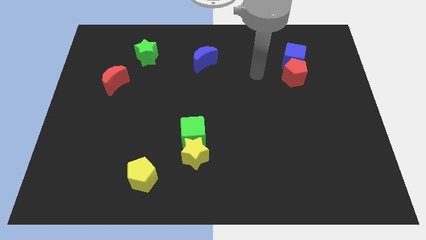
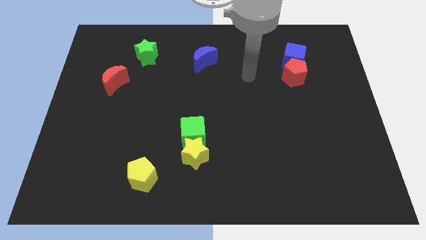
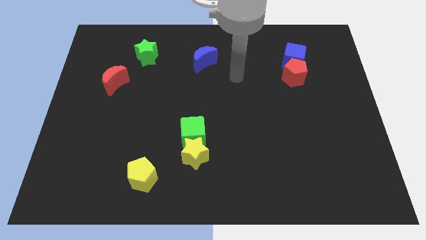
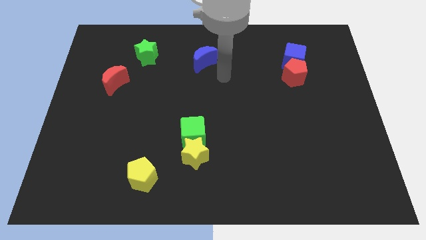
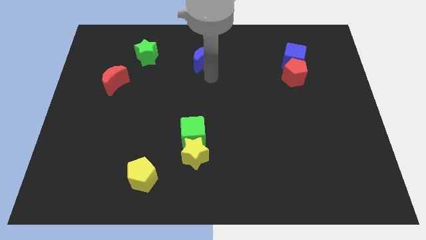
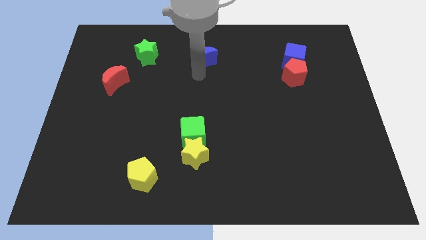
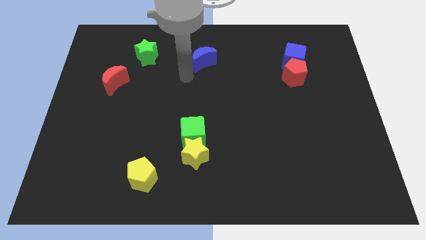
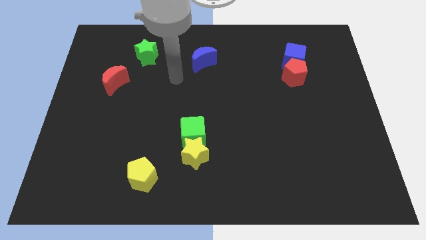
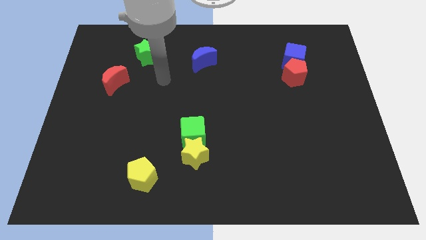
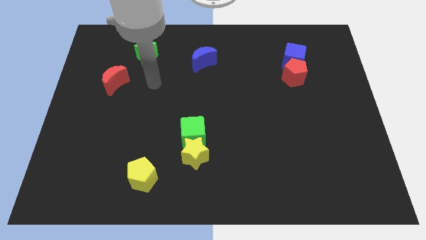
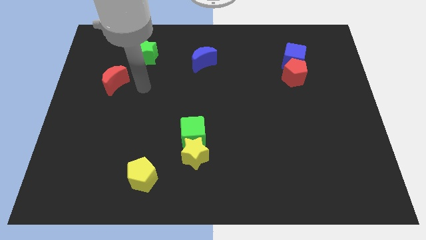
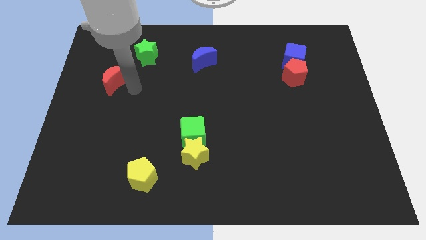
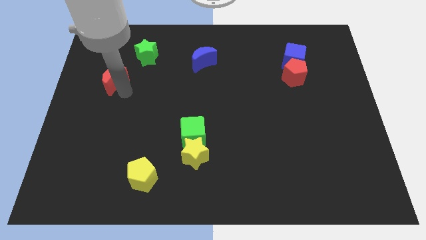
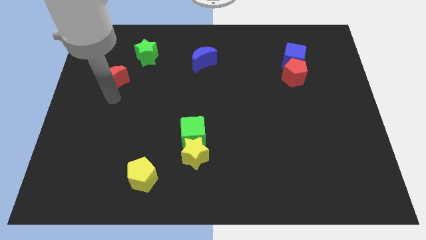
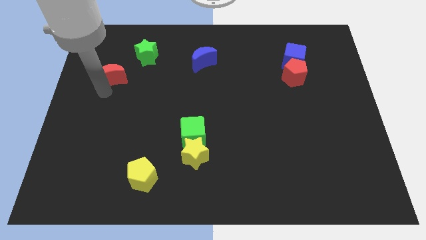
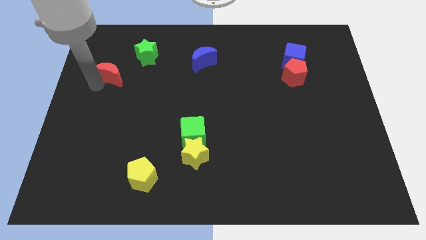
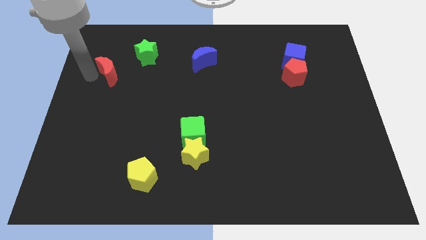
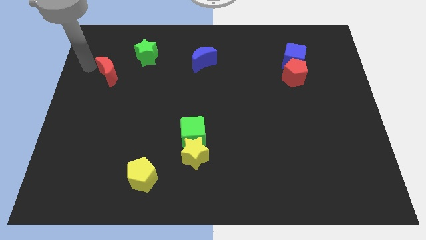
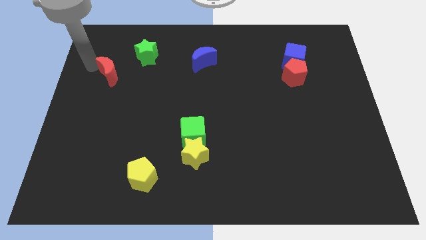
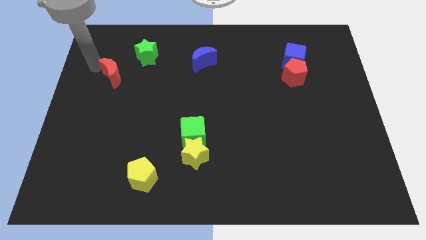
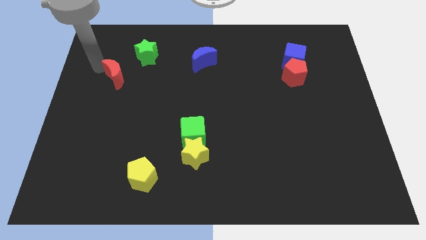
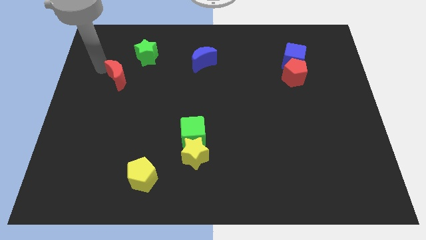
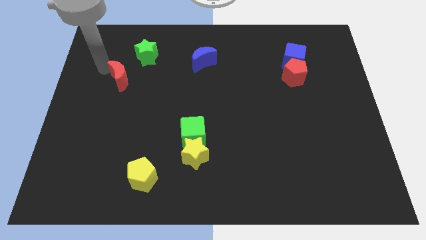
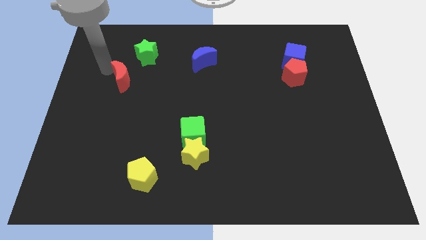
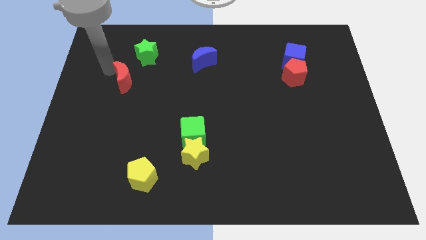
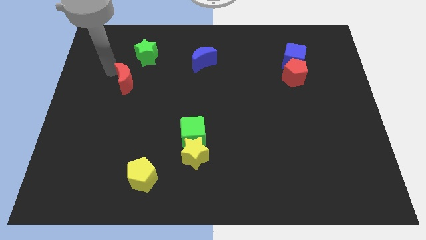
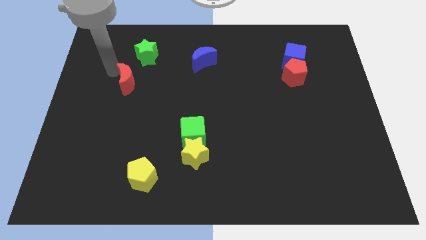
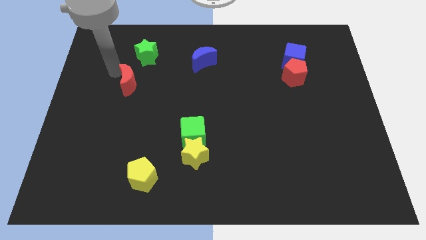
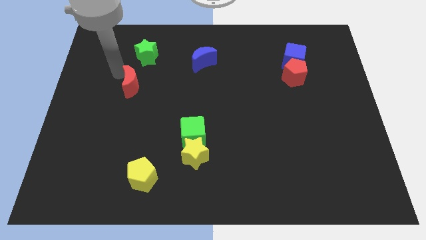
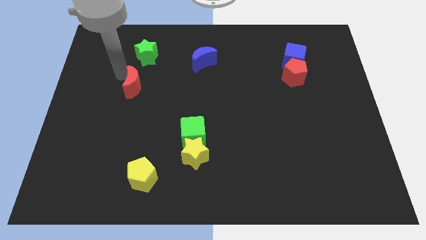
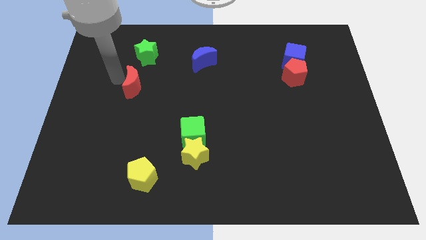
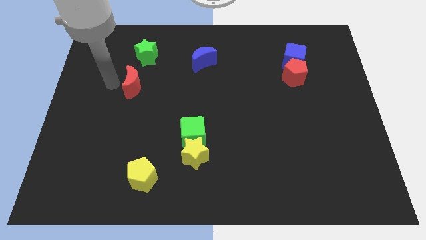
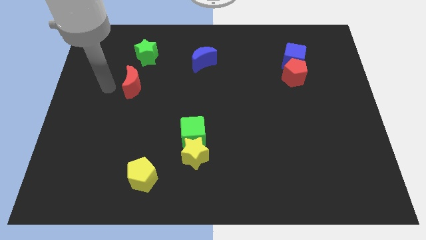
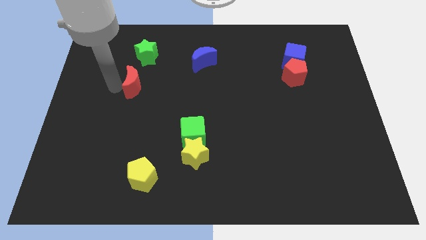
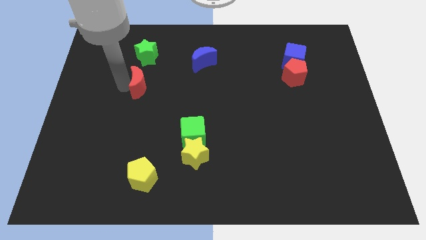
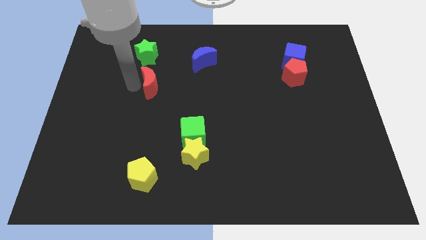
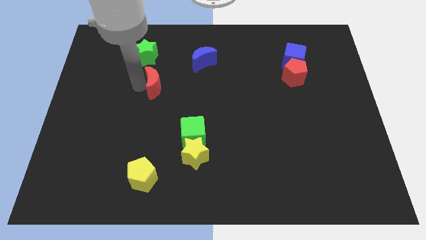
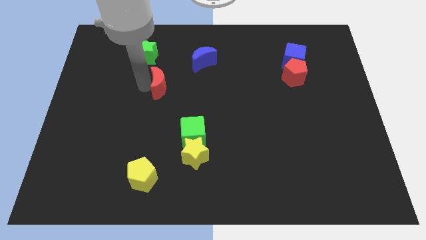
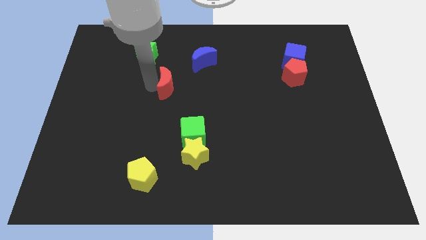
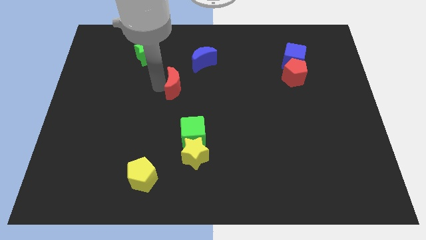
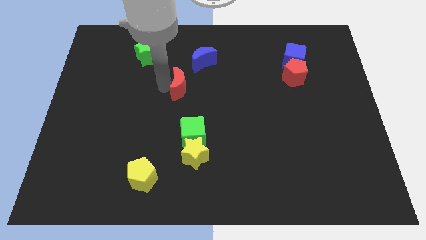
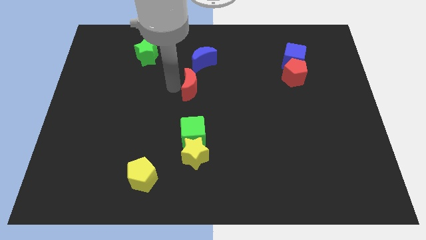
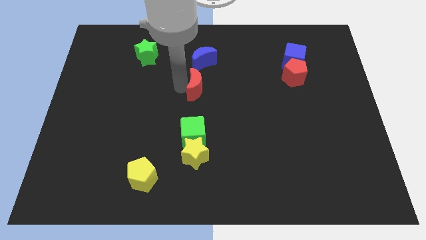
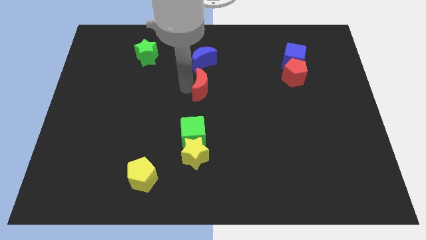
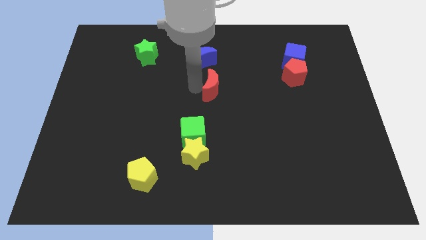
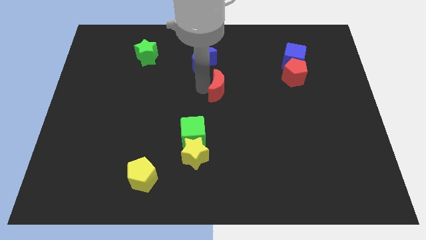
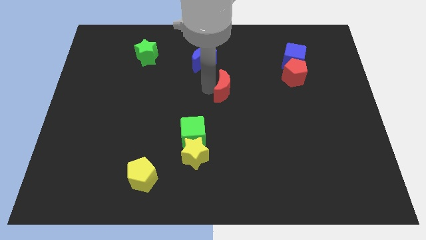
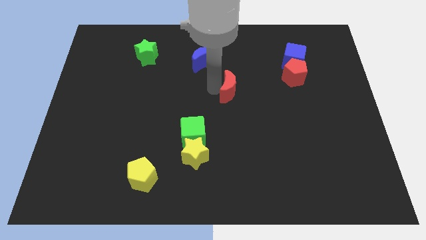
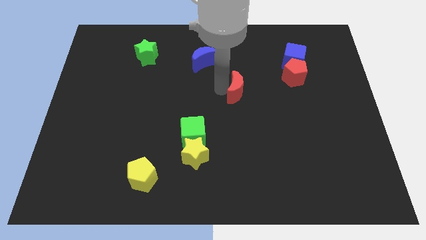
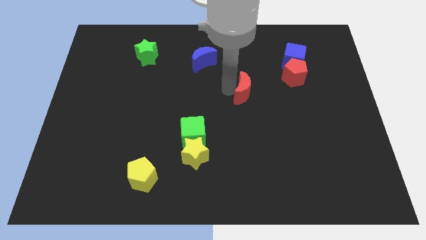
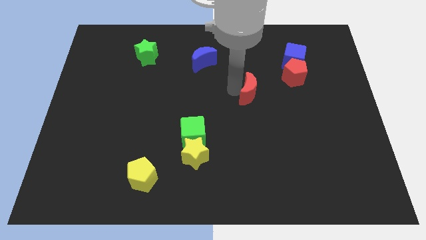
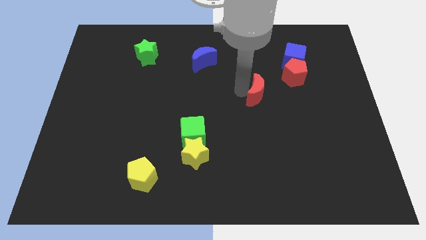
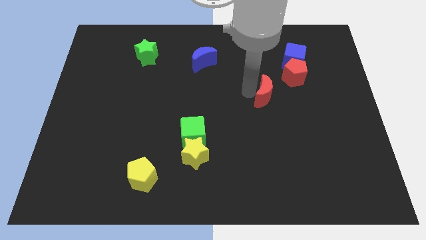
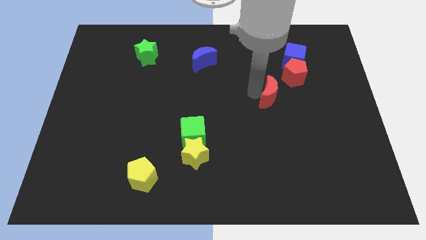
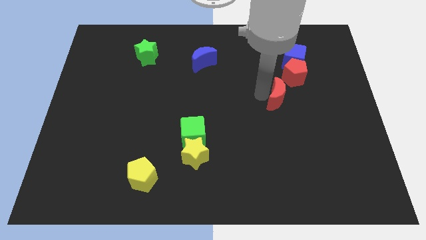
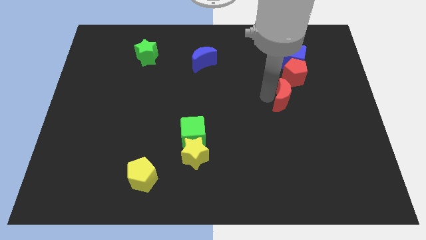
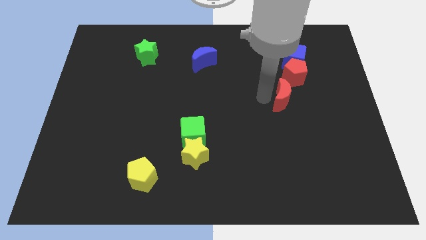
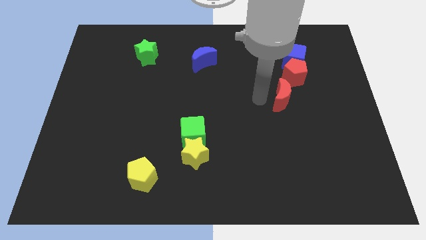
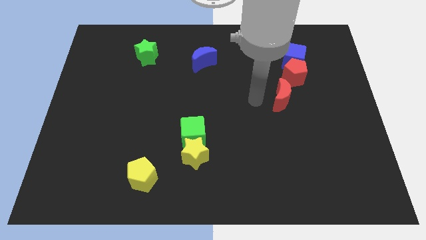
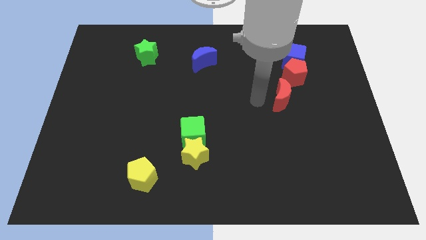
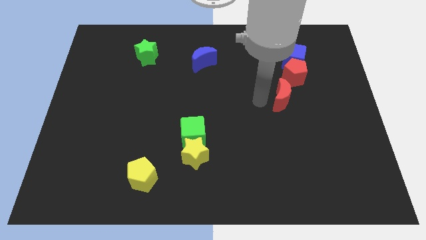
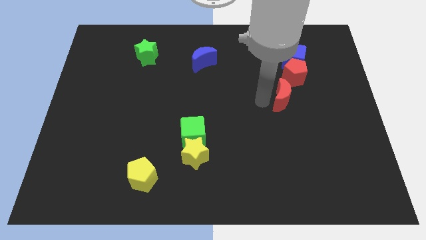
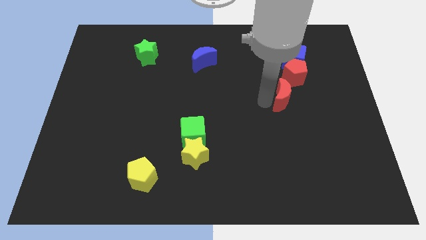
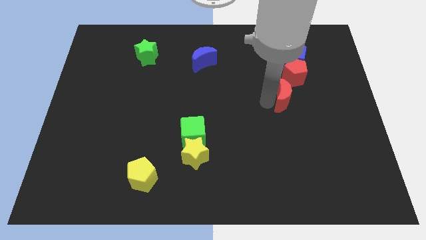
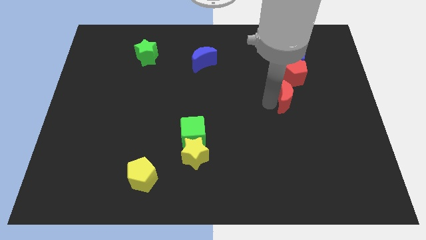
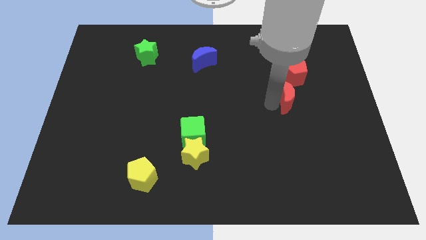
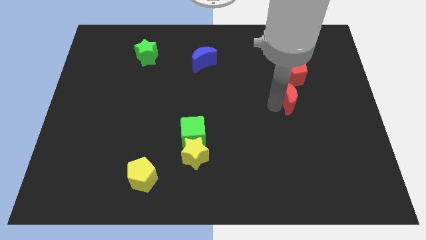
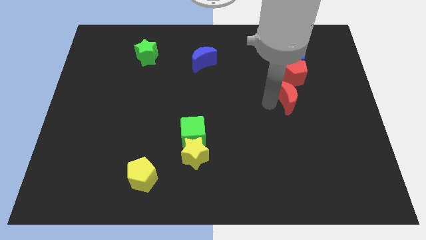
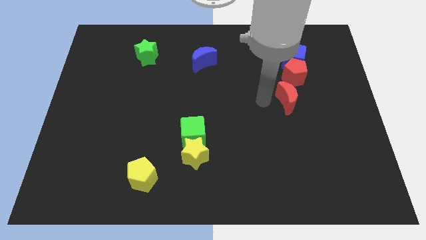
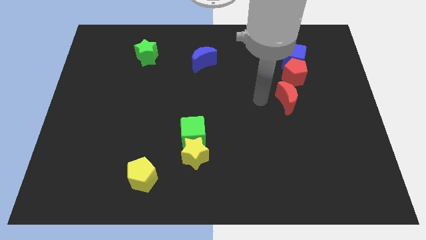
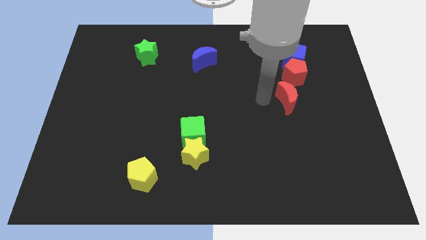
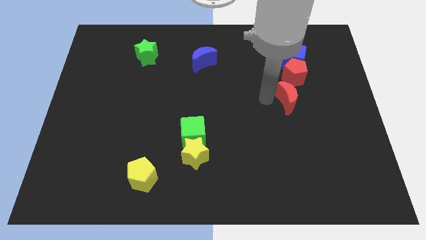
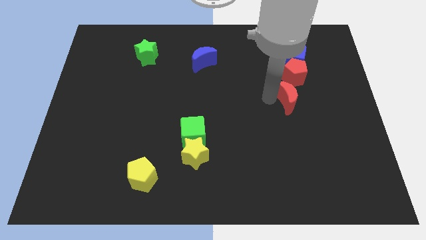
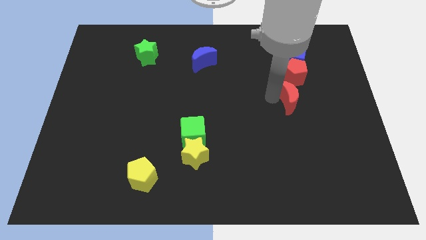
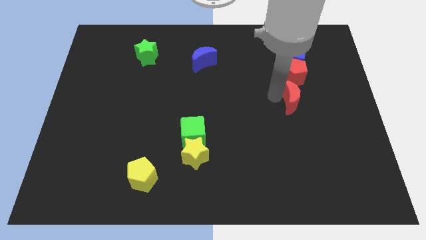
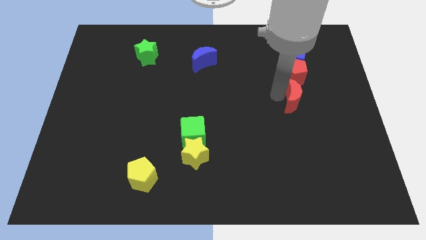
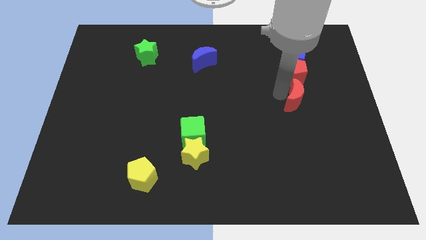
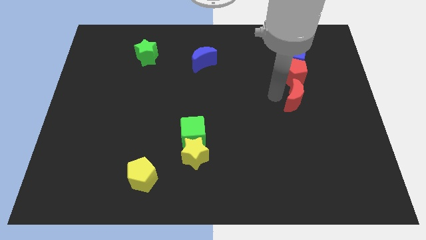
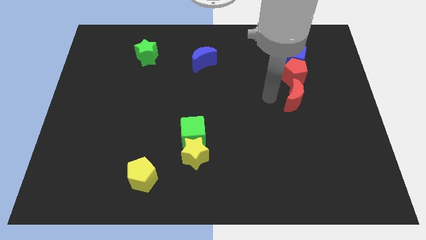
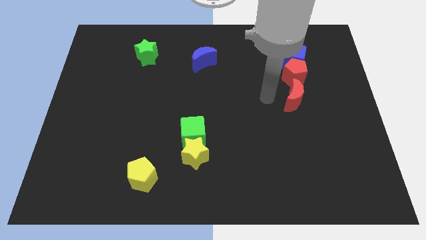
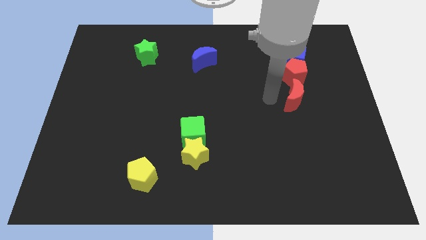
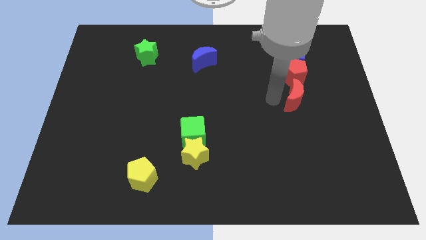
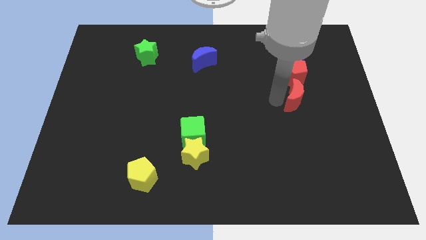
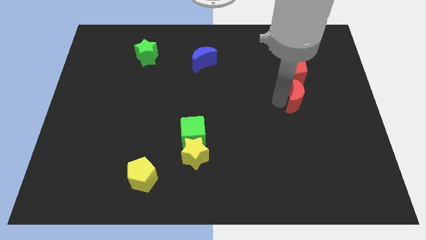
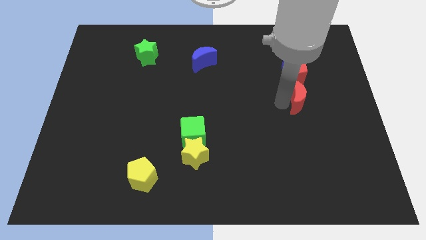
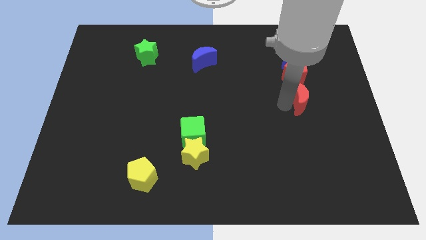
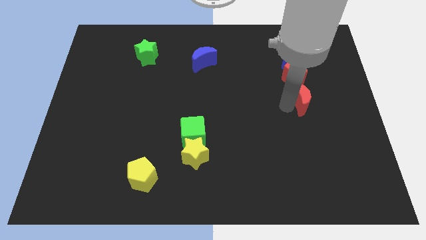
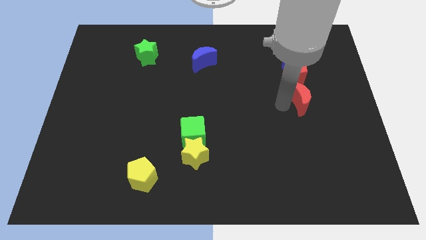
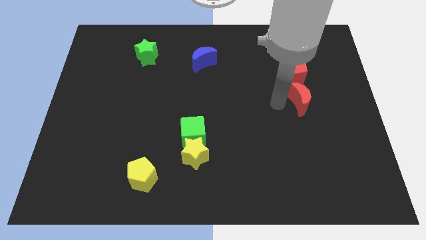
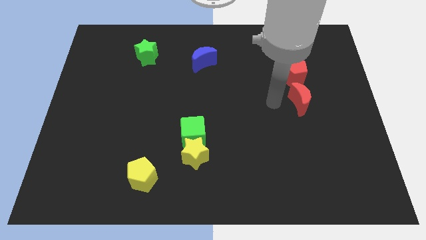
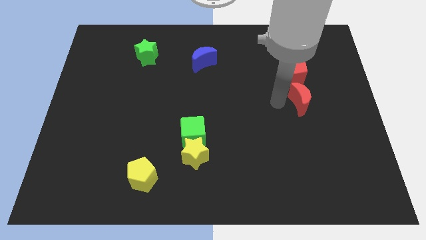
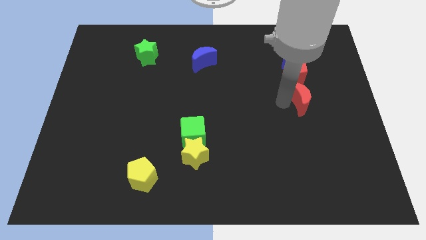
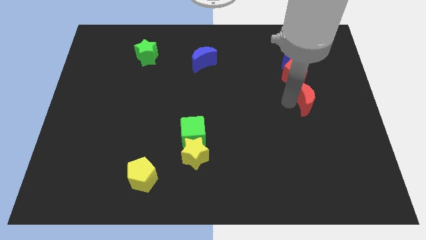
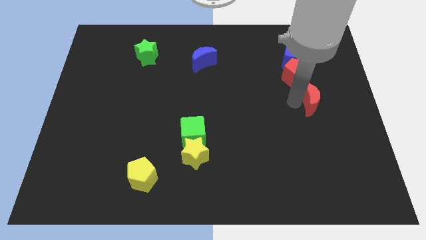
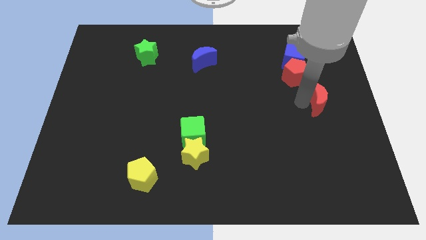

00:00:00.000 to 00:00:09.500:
move the red moon to the center right
